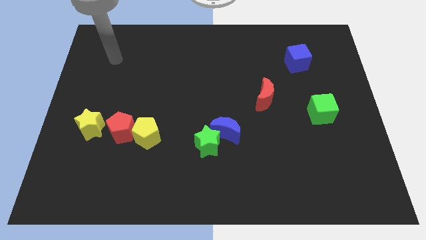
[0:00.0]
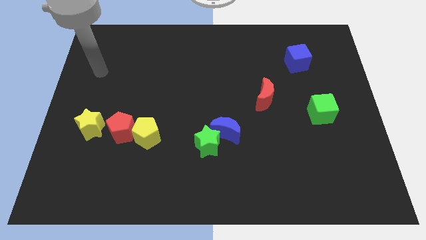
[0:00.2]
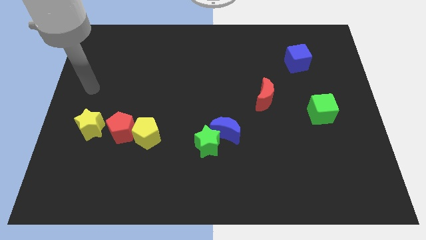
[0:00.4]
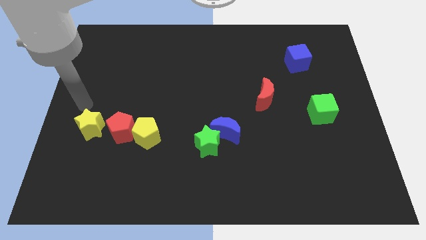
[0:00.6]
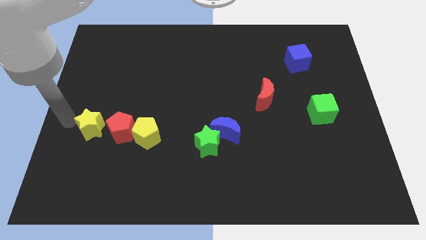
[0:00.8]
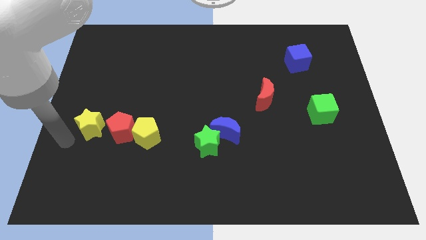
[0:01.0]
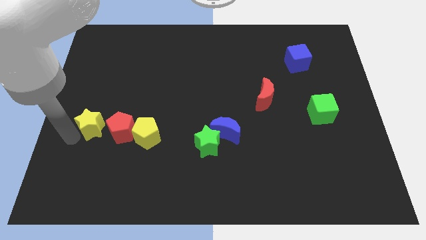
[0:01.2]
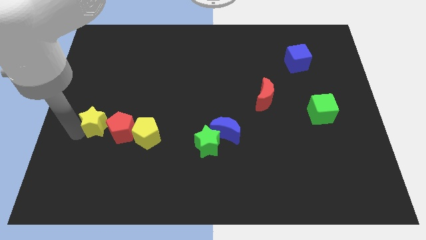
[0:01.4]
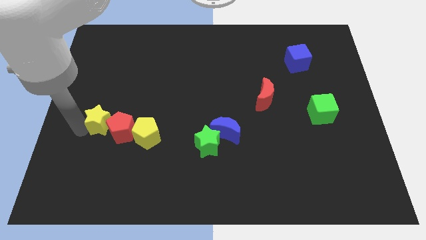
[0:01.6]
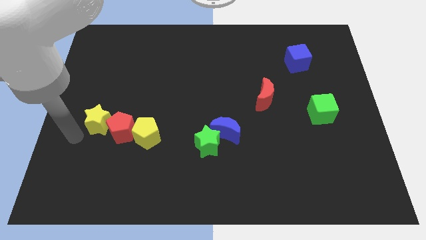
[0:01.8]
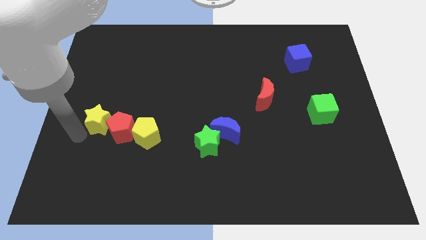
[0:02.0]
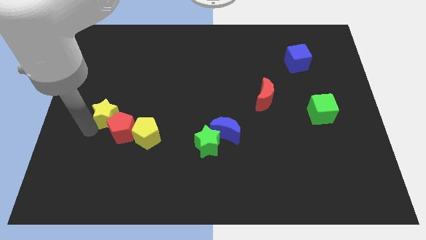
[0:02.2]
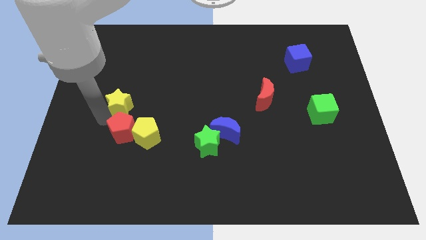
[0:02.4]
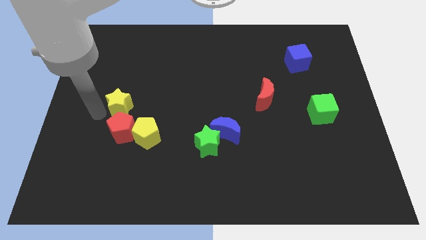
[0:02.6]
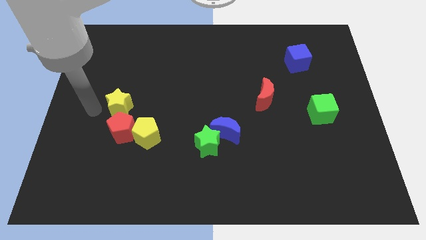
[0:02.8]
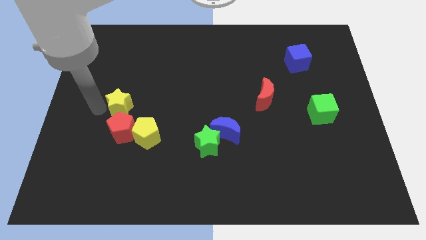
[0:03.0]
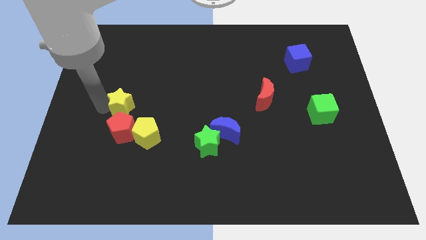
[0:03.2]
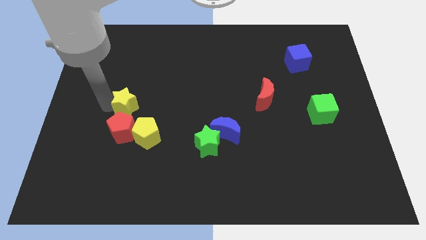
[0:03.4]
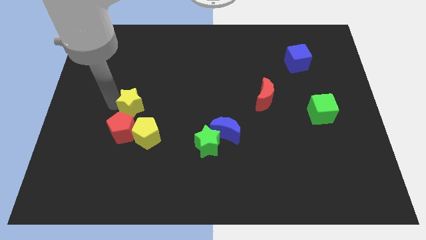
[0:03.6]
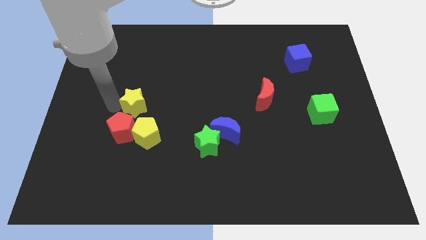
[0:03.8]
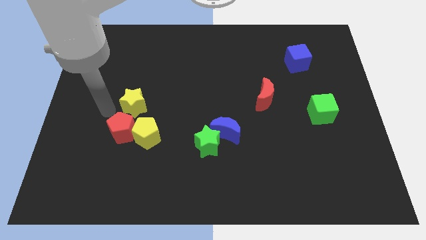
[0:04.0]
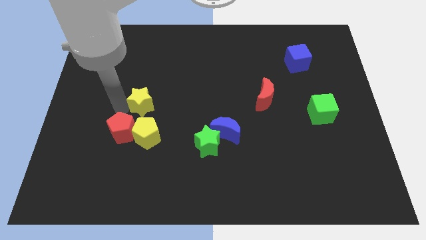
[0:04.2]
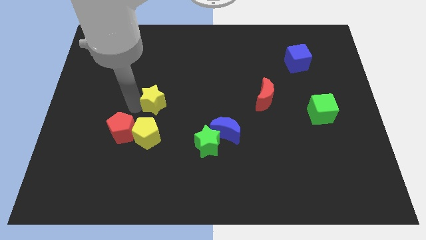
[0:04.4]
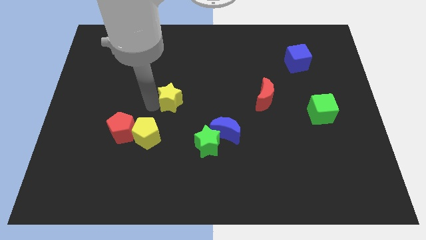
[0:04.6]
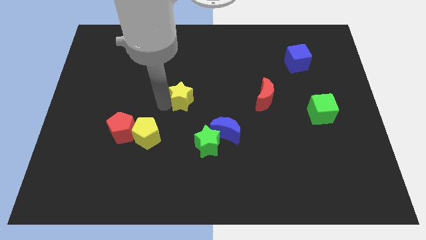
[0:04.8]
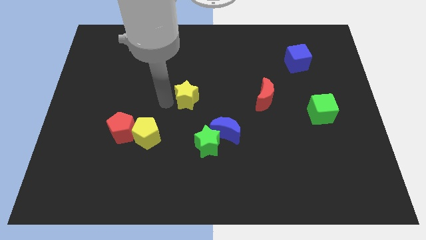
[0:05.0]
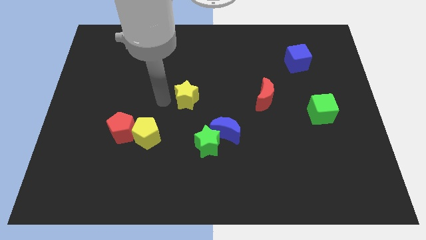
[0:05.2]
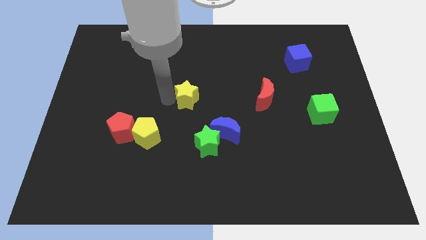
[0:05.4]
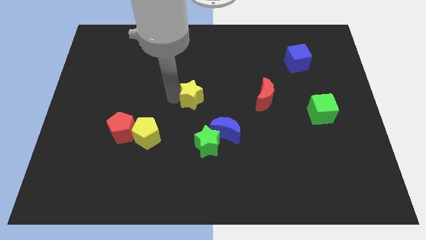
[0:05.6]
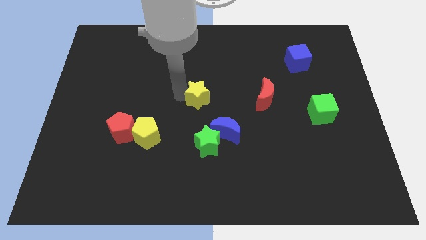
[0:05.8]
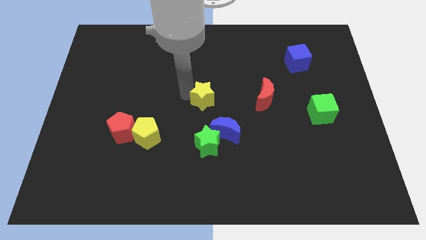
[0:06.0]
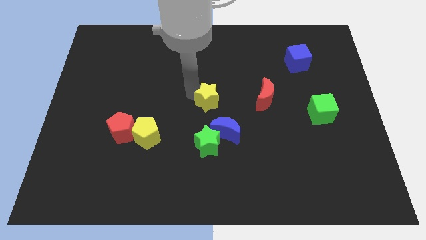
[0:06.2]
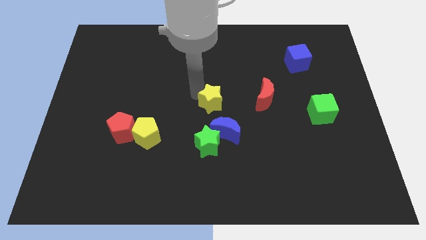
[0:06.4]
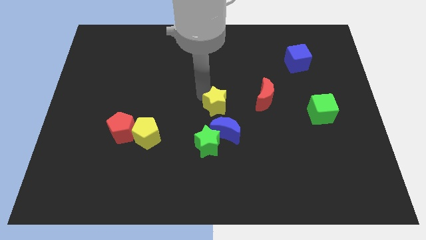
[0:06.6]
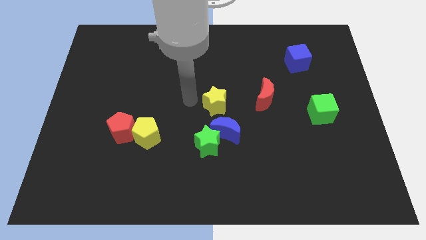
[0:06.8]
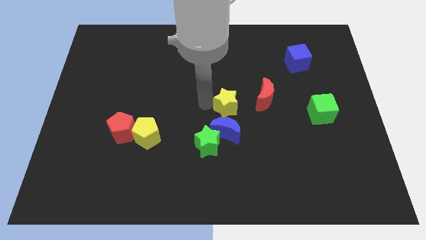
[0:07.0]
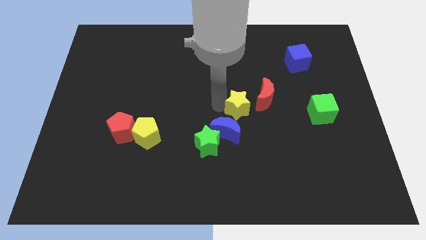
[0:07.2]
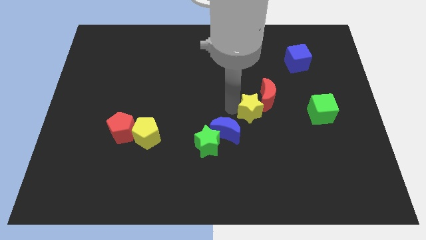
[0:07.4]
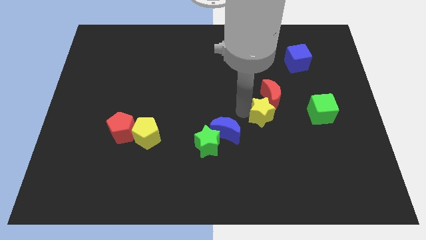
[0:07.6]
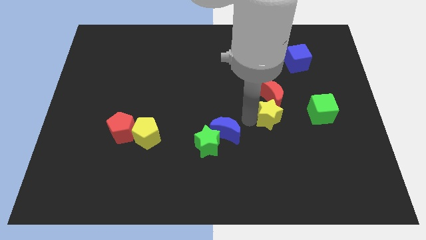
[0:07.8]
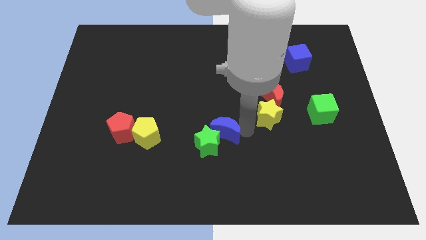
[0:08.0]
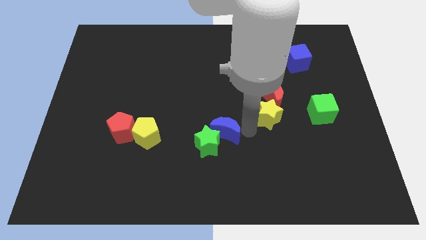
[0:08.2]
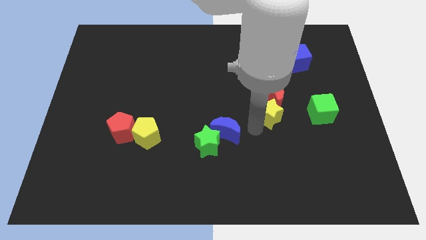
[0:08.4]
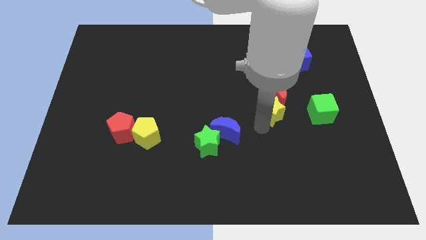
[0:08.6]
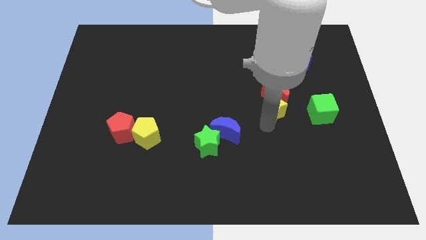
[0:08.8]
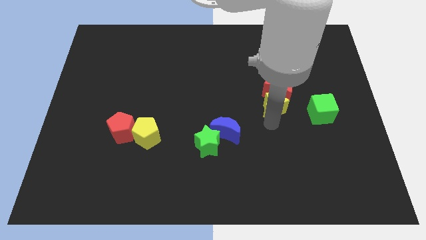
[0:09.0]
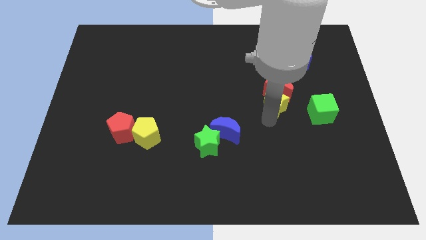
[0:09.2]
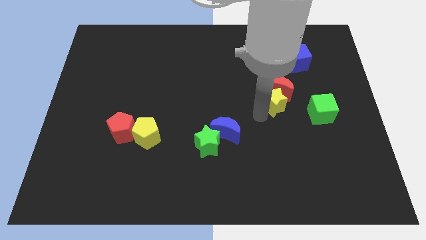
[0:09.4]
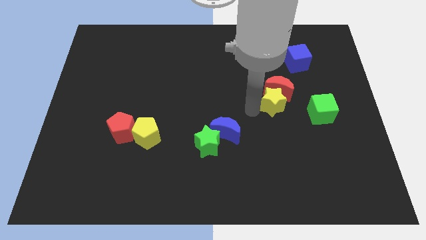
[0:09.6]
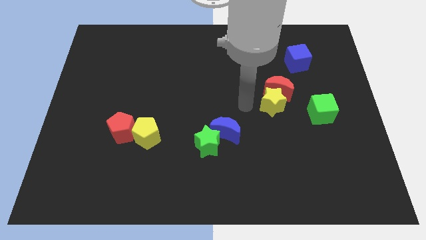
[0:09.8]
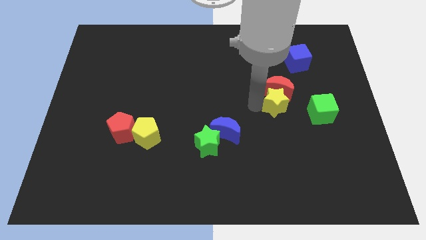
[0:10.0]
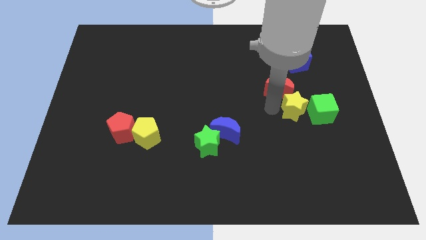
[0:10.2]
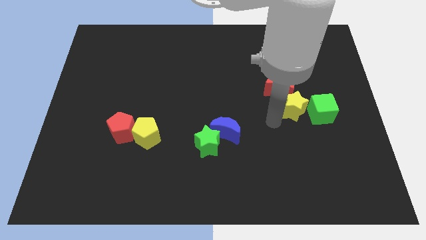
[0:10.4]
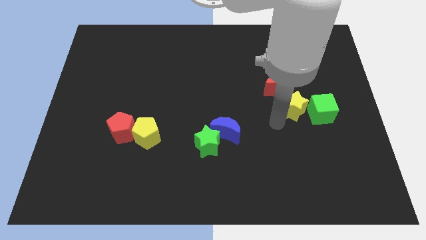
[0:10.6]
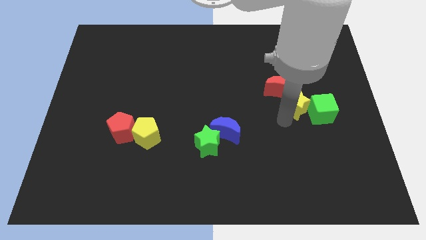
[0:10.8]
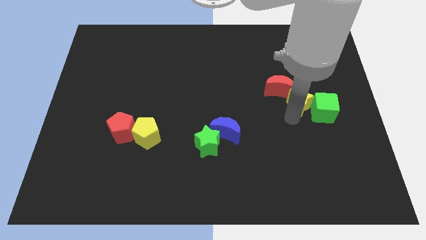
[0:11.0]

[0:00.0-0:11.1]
put the yellow star to the right of the red moon

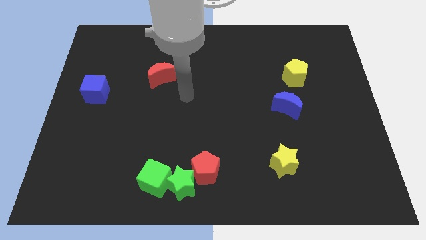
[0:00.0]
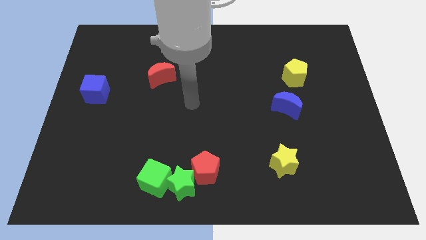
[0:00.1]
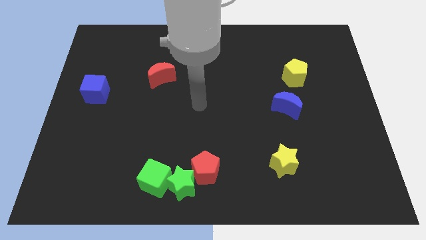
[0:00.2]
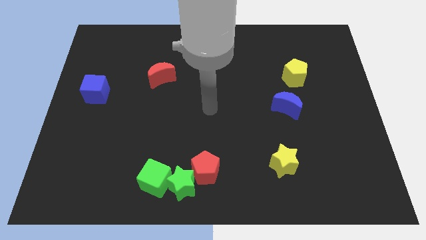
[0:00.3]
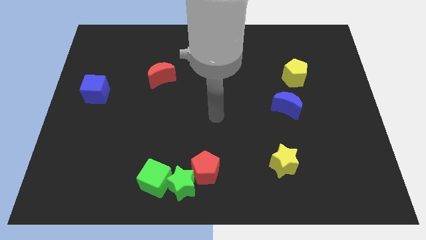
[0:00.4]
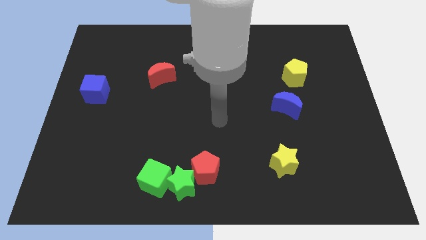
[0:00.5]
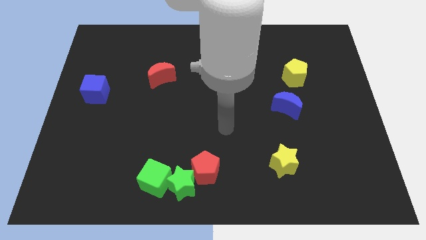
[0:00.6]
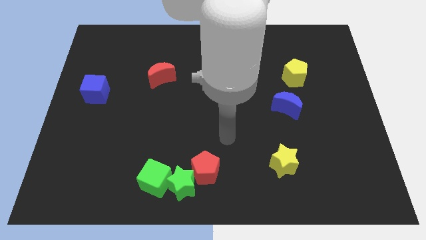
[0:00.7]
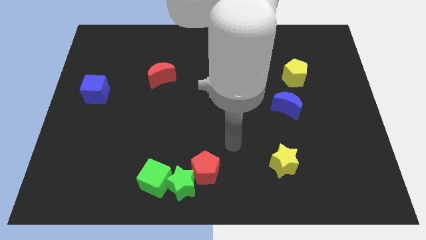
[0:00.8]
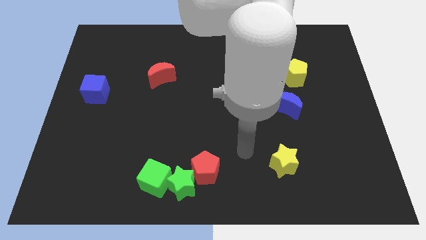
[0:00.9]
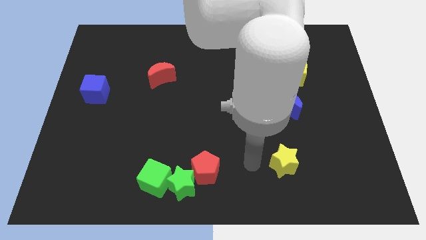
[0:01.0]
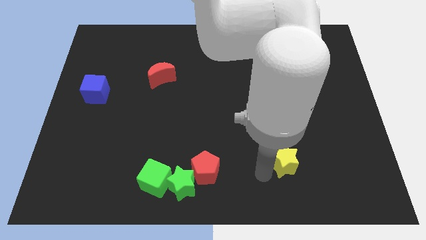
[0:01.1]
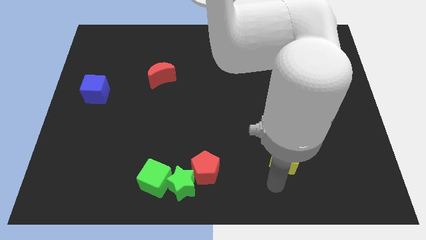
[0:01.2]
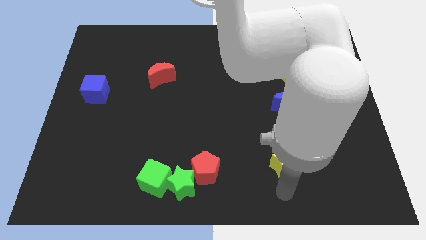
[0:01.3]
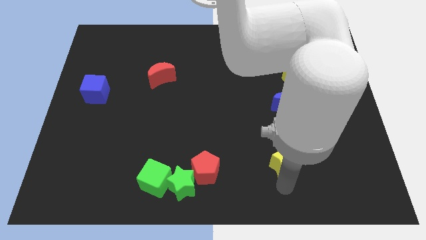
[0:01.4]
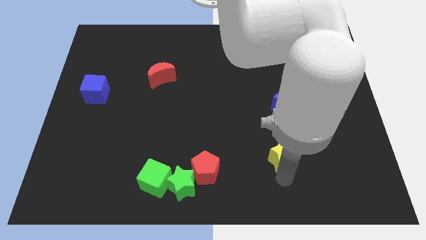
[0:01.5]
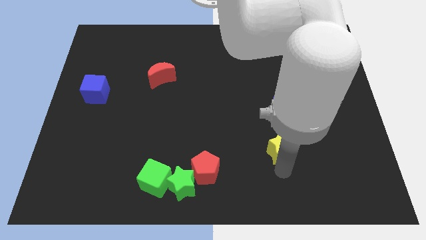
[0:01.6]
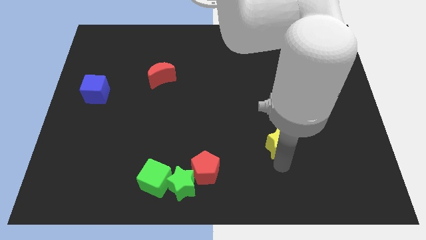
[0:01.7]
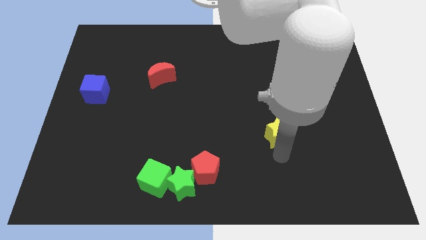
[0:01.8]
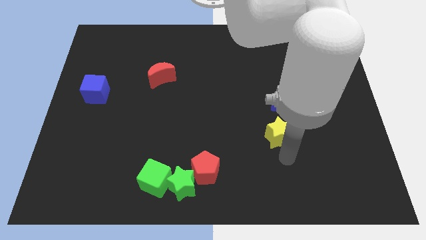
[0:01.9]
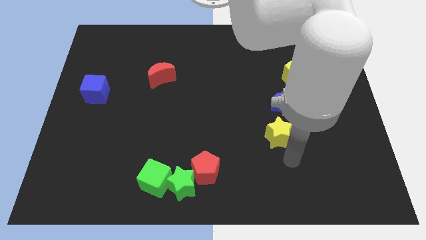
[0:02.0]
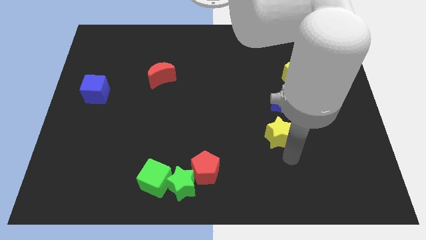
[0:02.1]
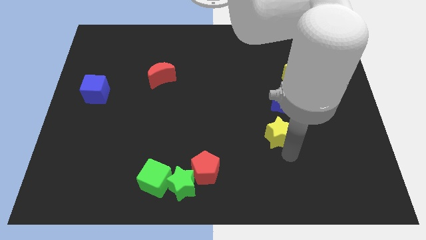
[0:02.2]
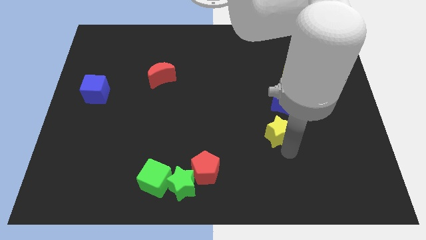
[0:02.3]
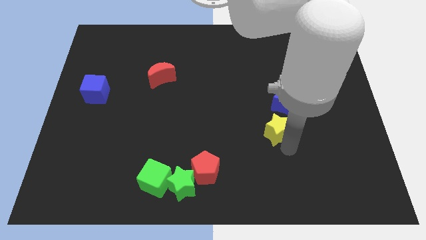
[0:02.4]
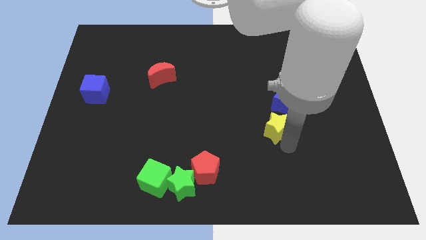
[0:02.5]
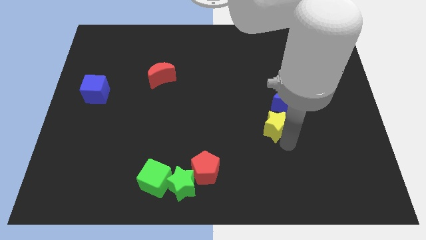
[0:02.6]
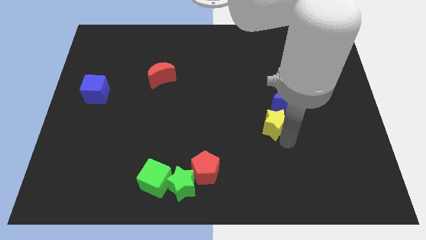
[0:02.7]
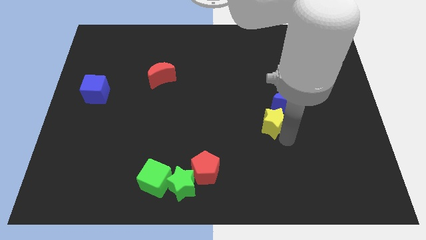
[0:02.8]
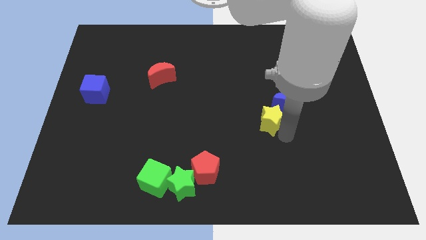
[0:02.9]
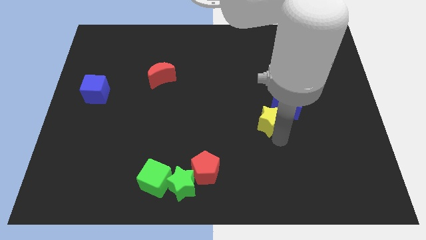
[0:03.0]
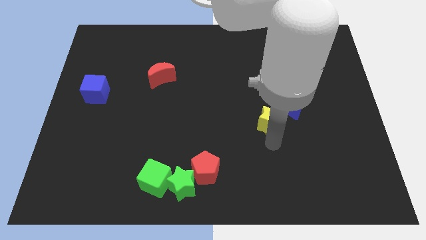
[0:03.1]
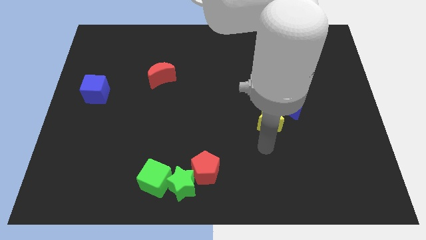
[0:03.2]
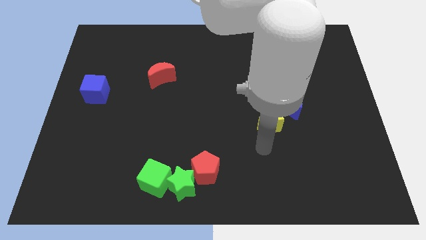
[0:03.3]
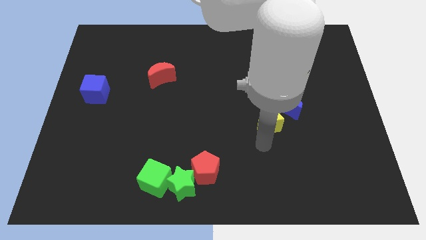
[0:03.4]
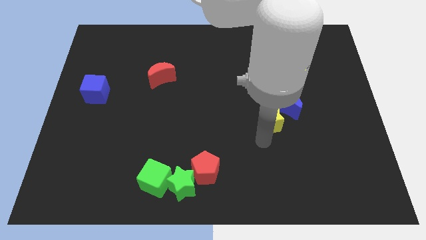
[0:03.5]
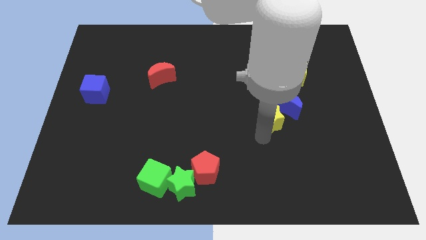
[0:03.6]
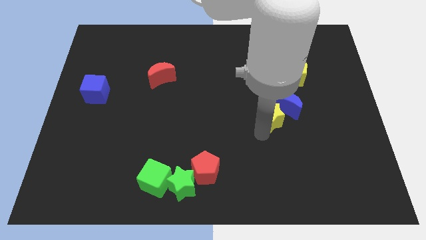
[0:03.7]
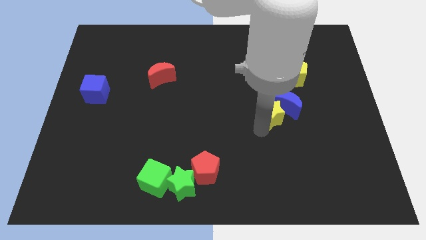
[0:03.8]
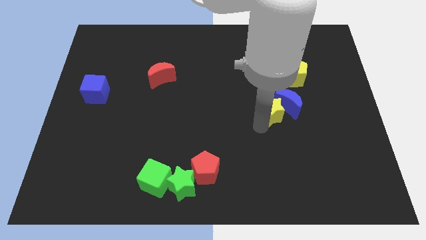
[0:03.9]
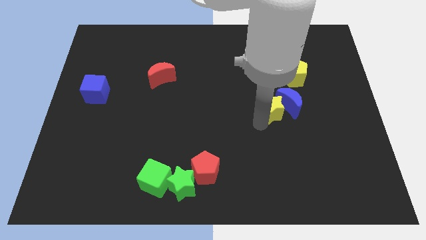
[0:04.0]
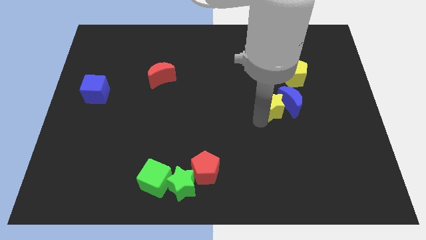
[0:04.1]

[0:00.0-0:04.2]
move the yellow star to the bottom left of the yellow pentagon
